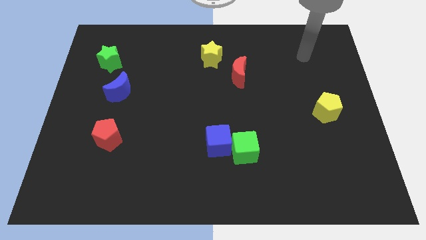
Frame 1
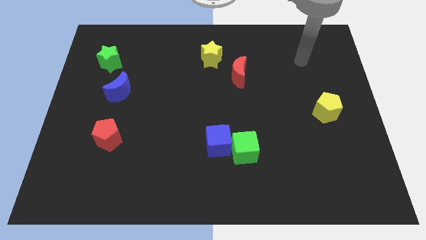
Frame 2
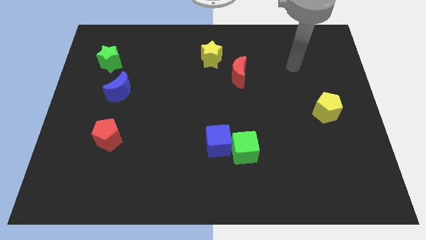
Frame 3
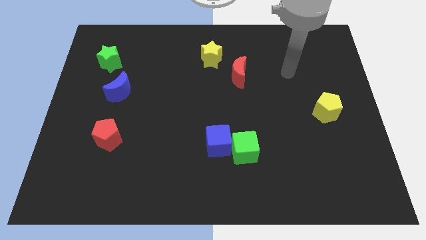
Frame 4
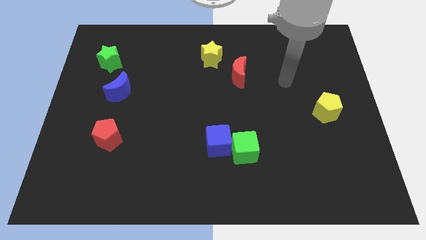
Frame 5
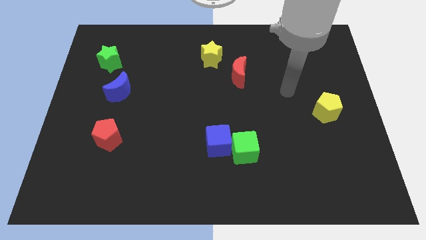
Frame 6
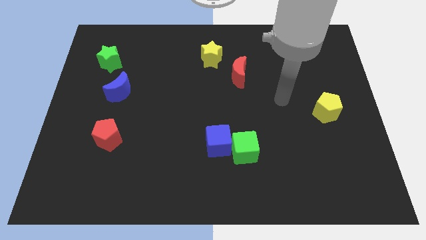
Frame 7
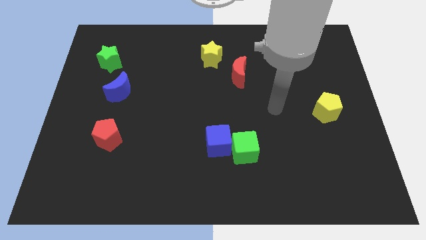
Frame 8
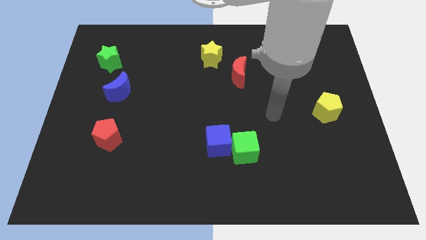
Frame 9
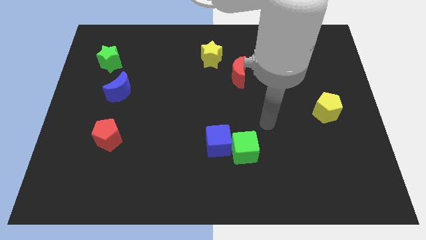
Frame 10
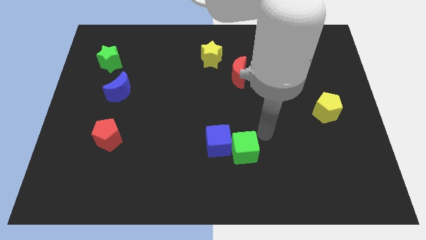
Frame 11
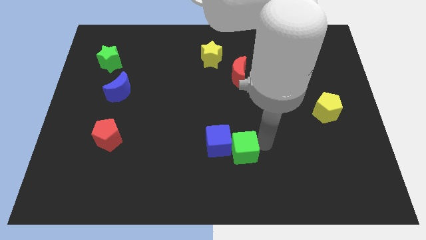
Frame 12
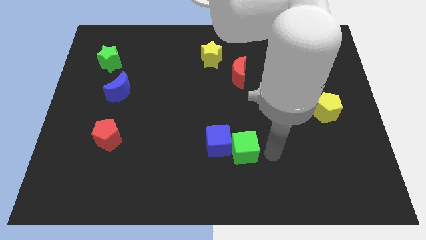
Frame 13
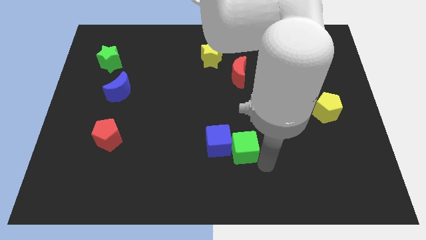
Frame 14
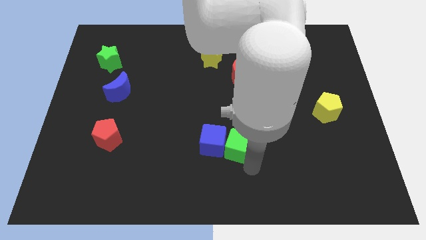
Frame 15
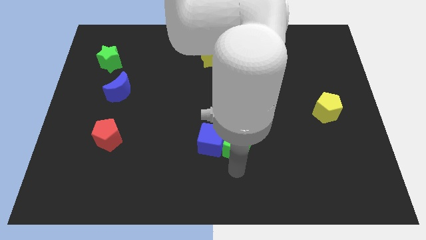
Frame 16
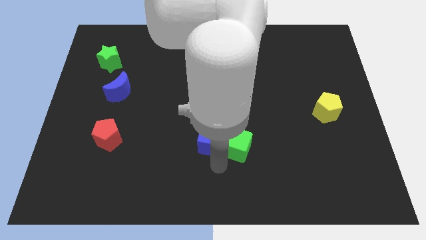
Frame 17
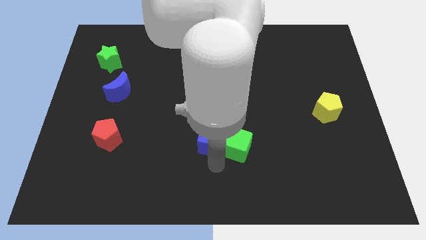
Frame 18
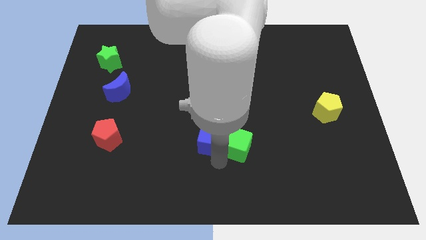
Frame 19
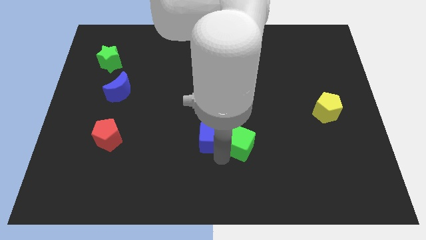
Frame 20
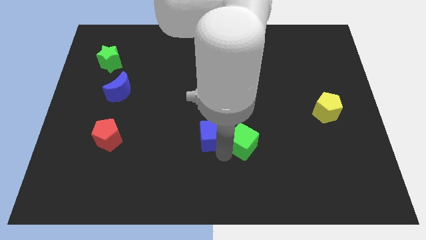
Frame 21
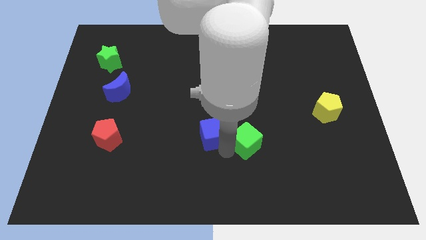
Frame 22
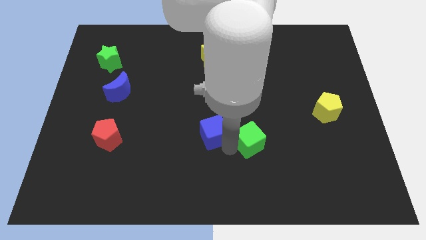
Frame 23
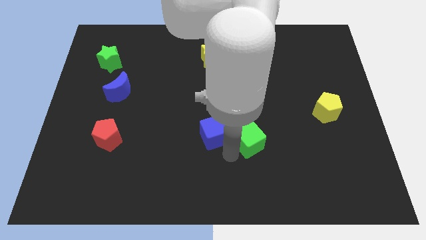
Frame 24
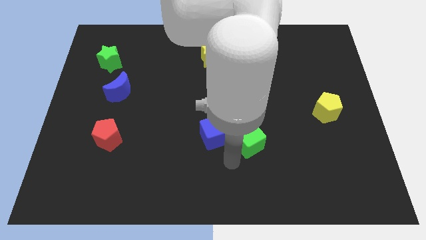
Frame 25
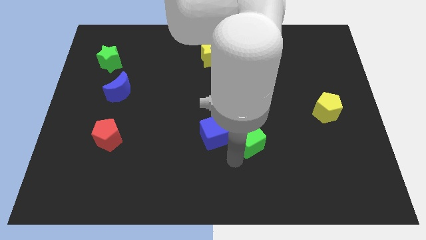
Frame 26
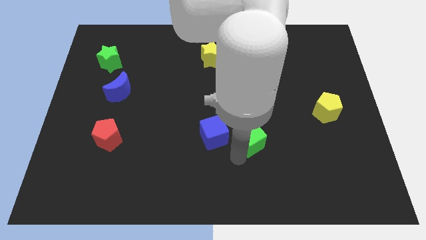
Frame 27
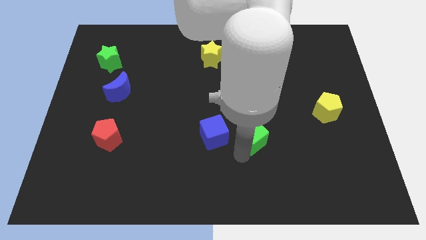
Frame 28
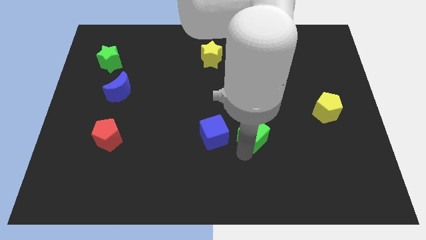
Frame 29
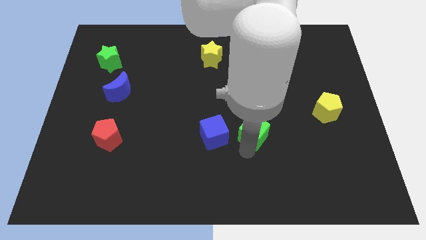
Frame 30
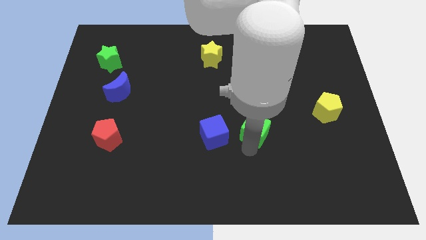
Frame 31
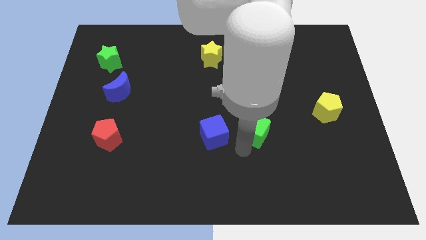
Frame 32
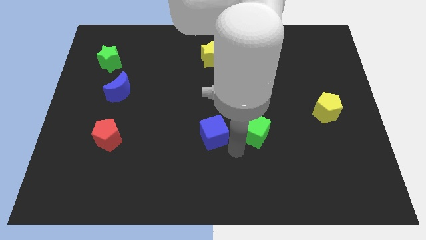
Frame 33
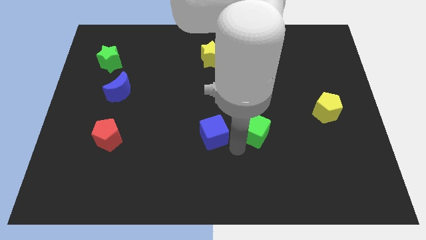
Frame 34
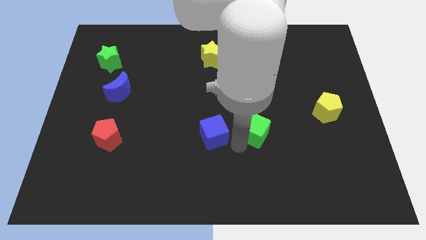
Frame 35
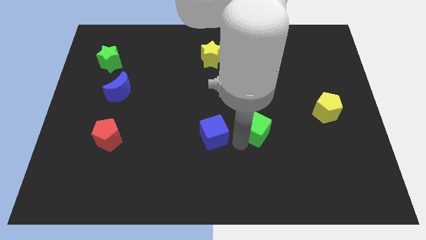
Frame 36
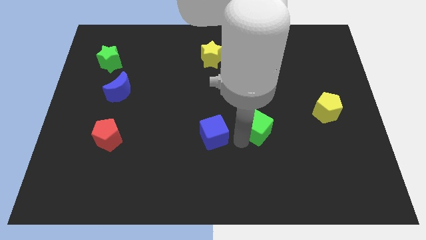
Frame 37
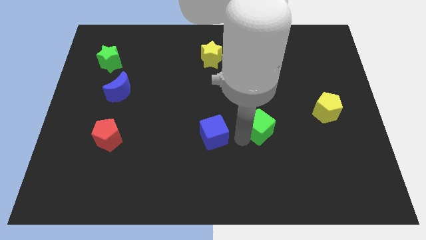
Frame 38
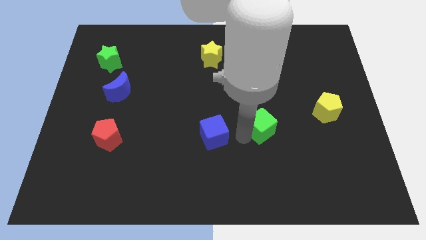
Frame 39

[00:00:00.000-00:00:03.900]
move the green cube up and then to the right a little

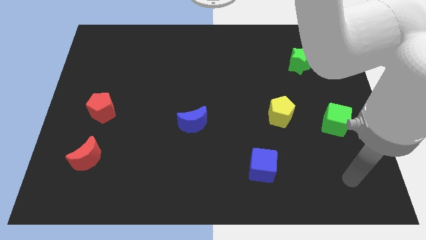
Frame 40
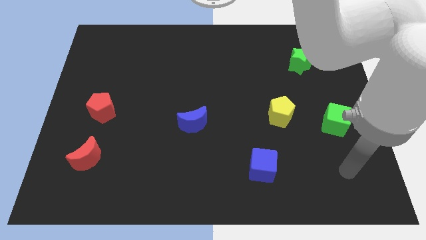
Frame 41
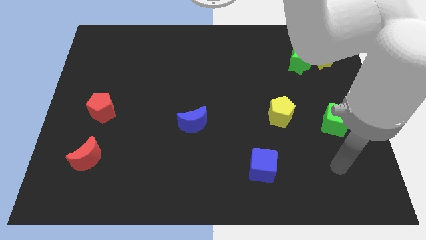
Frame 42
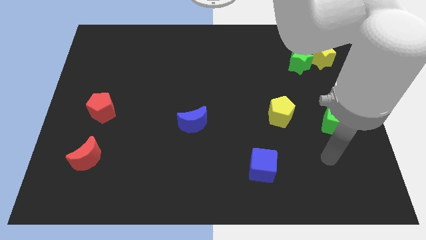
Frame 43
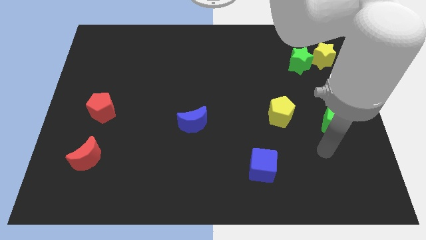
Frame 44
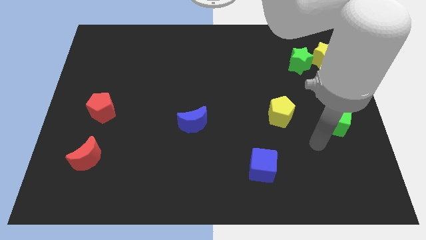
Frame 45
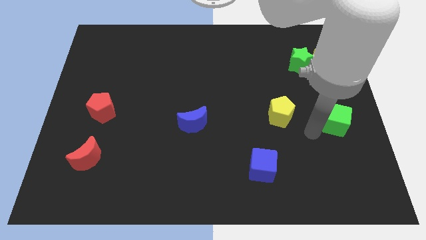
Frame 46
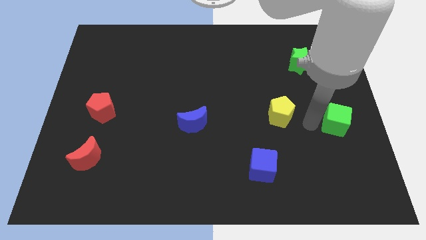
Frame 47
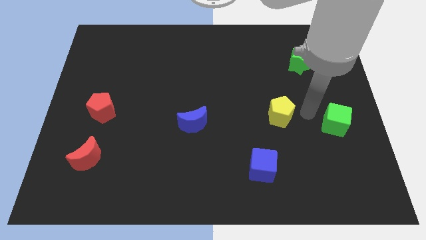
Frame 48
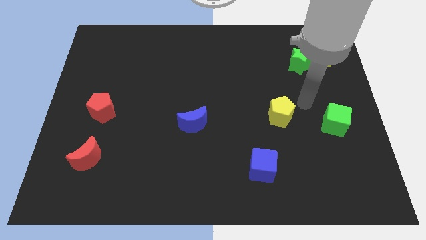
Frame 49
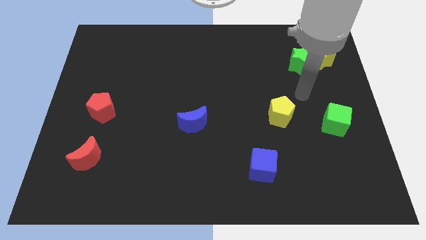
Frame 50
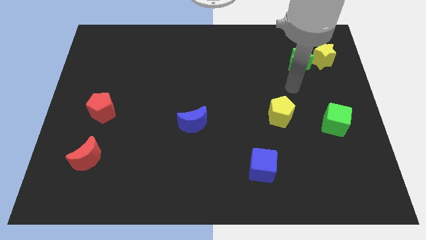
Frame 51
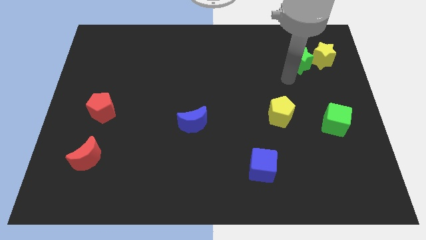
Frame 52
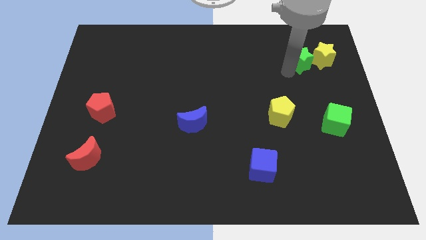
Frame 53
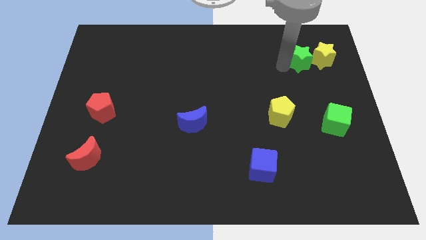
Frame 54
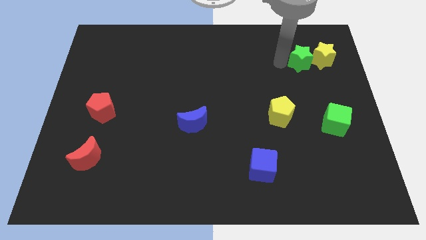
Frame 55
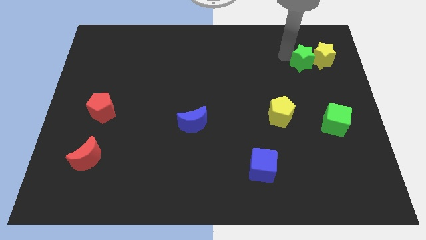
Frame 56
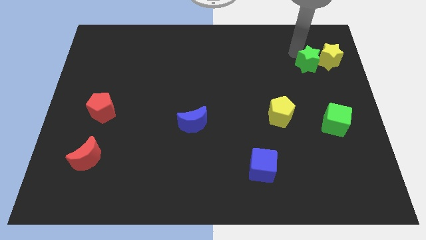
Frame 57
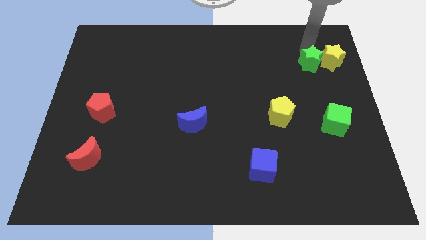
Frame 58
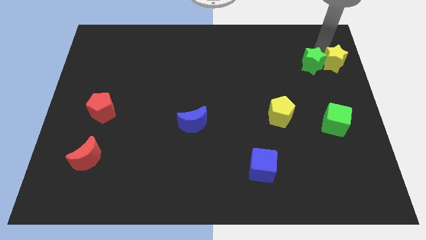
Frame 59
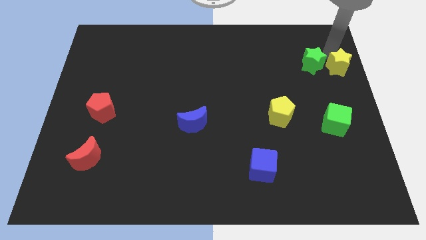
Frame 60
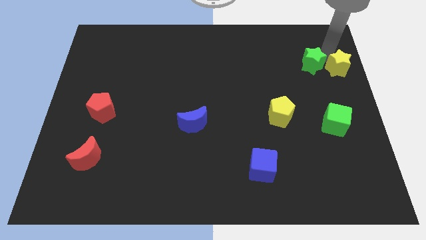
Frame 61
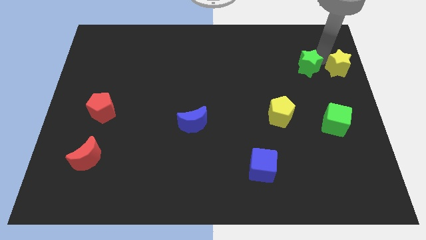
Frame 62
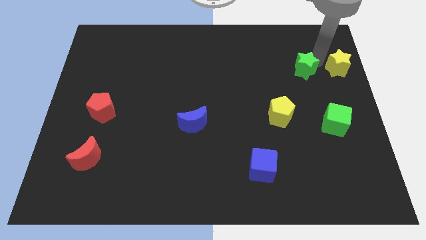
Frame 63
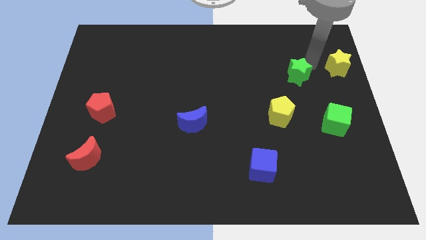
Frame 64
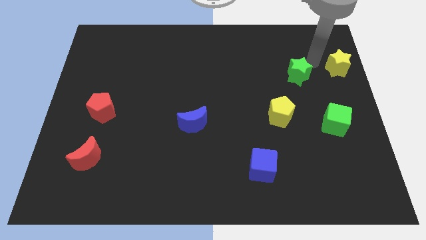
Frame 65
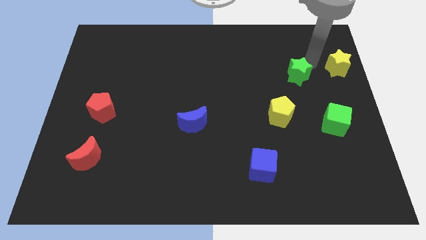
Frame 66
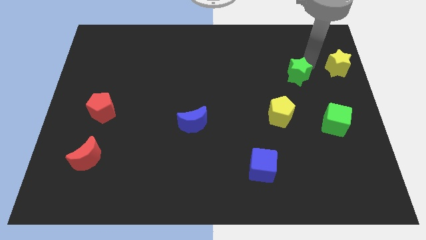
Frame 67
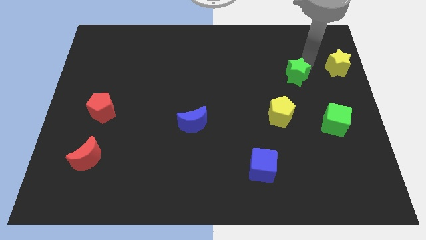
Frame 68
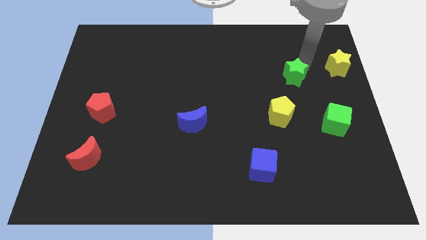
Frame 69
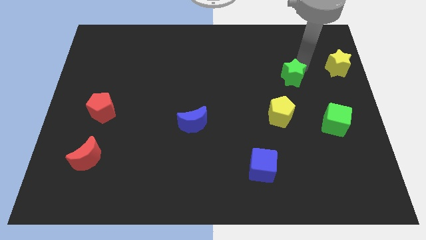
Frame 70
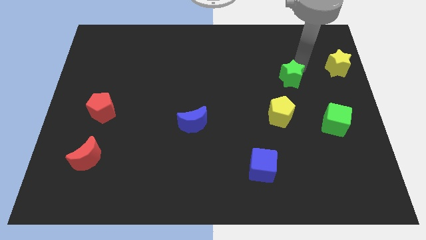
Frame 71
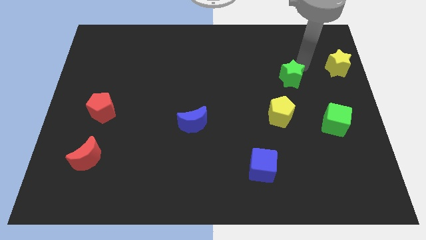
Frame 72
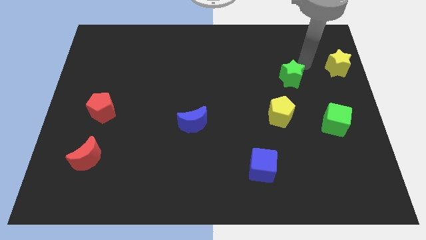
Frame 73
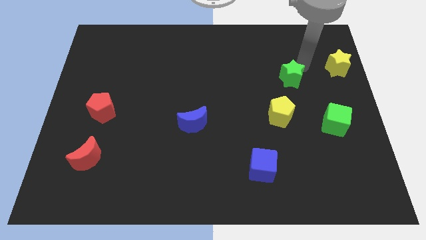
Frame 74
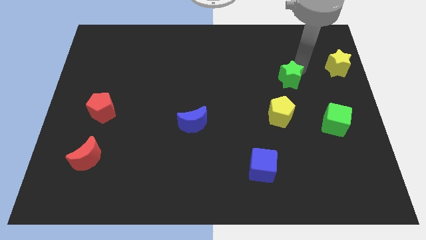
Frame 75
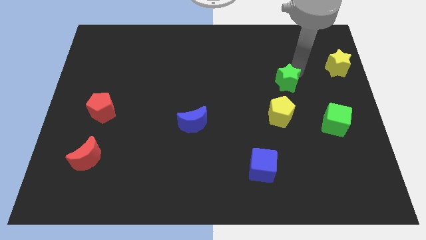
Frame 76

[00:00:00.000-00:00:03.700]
slide the green star down and to the left diagonally somewhat

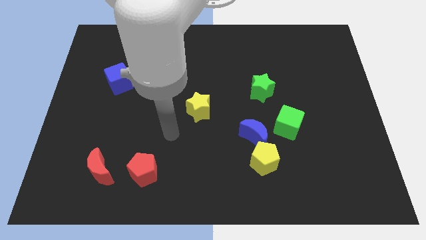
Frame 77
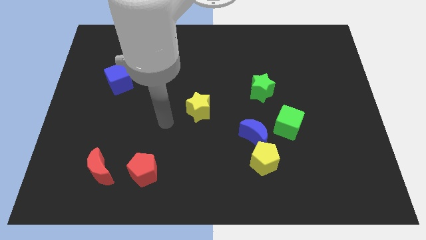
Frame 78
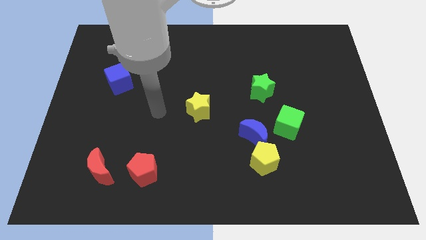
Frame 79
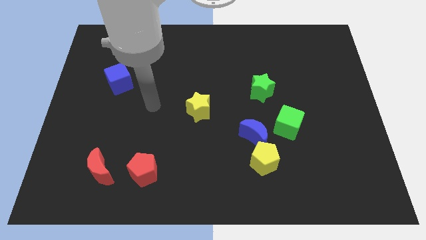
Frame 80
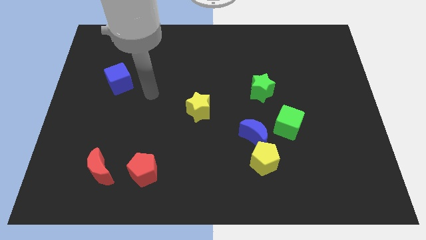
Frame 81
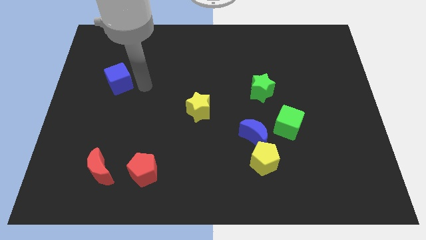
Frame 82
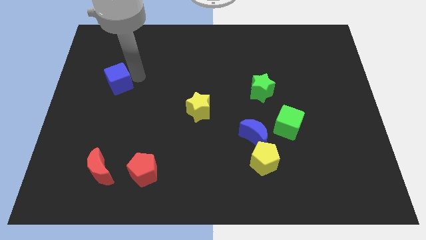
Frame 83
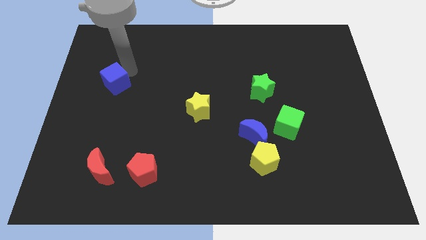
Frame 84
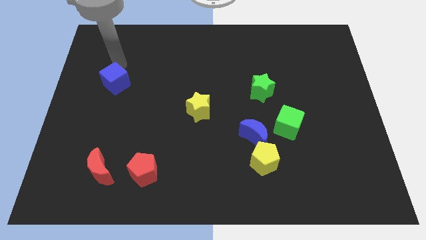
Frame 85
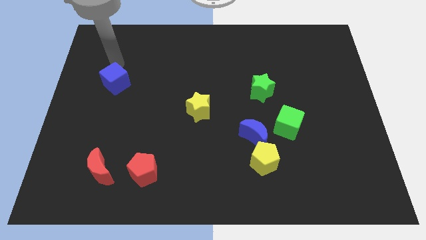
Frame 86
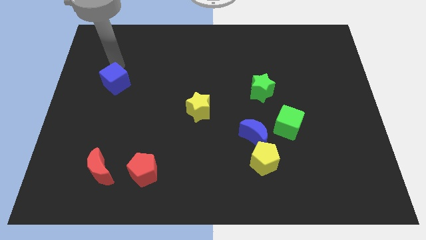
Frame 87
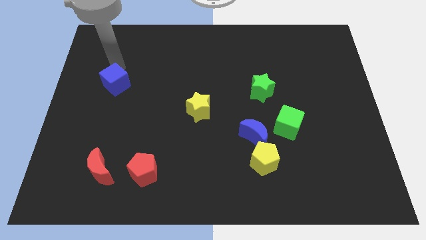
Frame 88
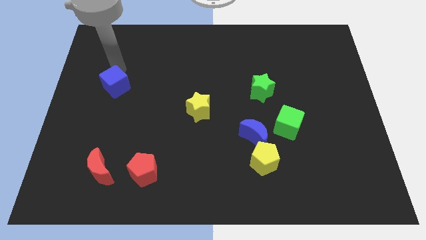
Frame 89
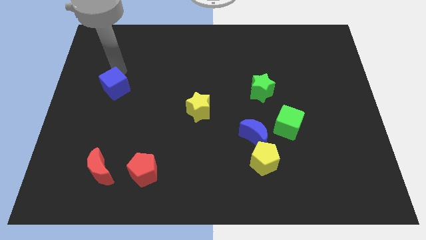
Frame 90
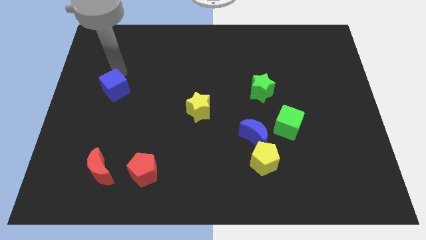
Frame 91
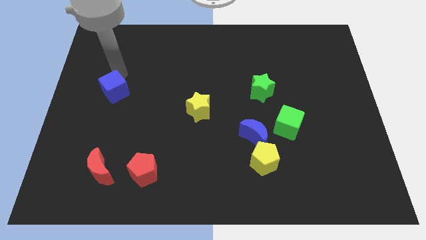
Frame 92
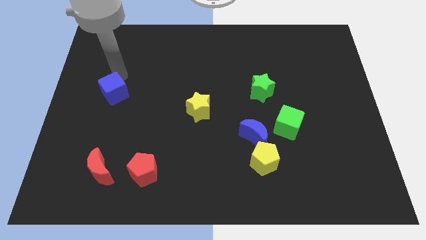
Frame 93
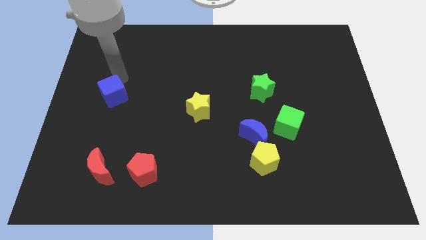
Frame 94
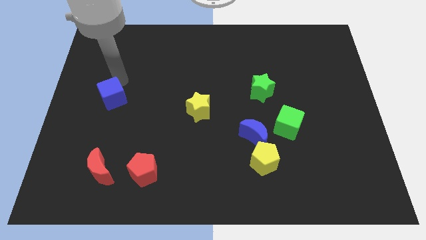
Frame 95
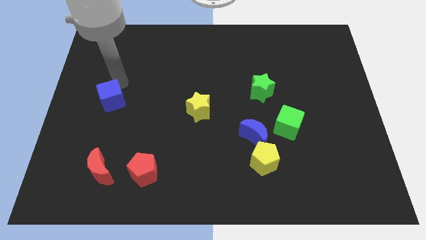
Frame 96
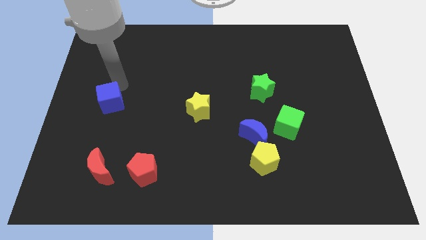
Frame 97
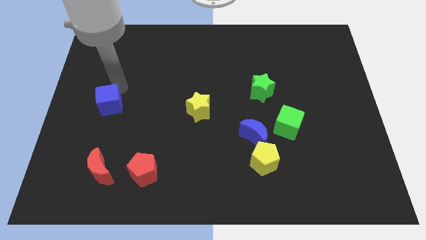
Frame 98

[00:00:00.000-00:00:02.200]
move the blue cube down a little bit
